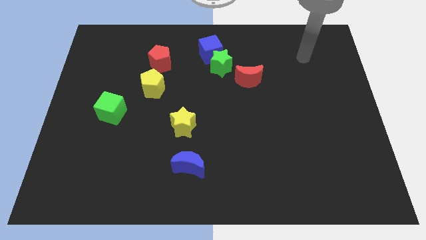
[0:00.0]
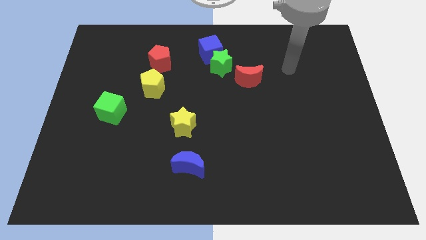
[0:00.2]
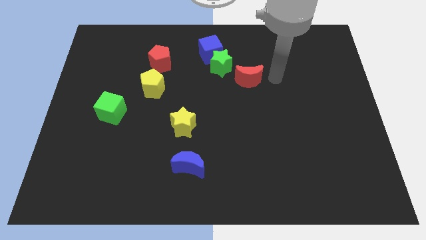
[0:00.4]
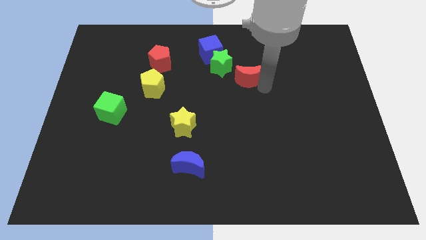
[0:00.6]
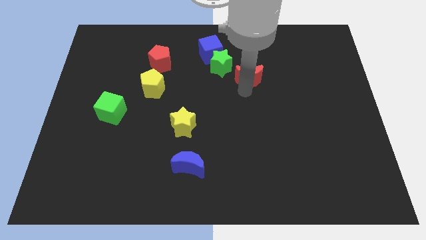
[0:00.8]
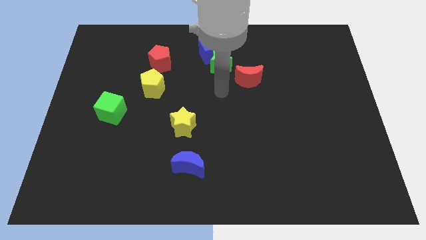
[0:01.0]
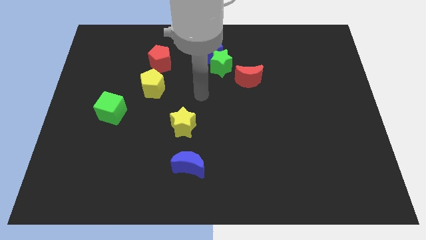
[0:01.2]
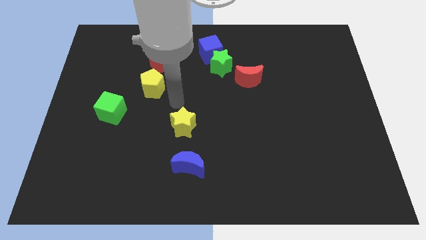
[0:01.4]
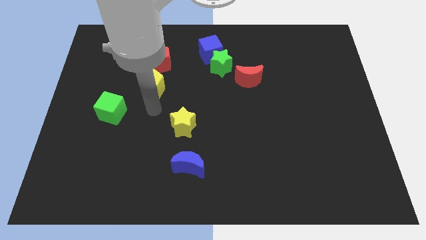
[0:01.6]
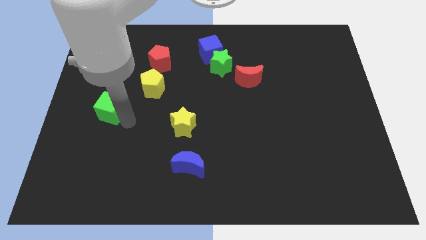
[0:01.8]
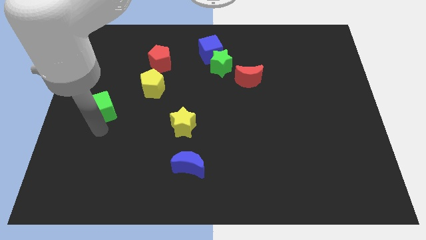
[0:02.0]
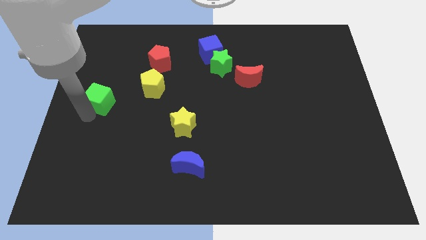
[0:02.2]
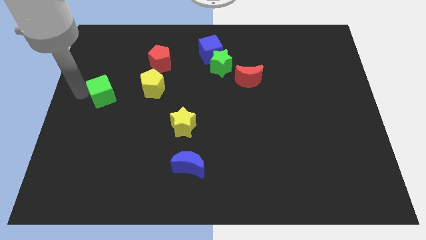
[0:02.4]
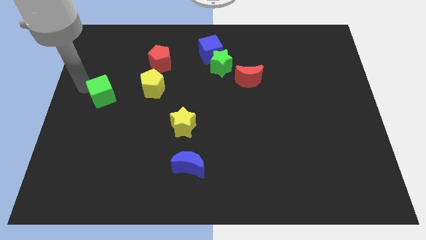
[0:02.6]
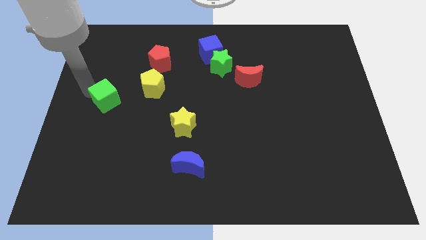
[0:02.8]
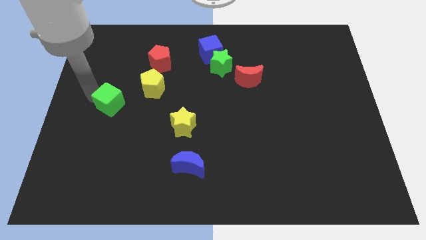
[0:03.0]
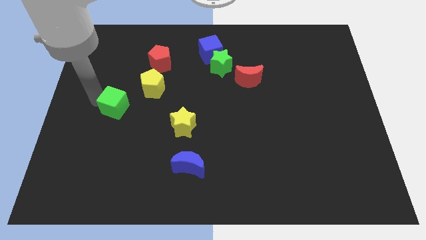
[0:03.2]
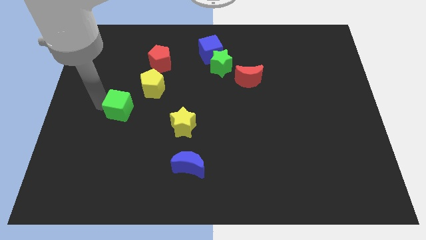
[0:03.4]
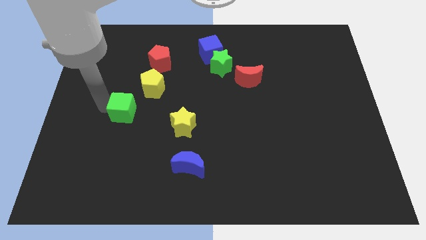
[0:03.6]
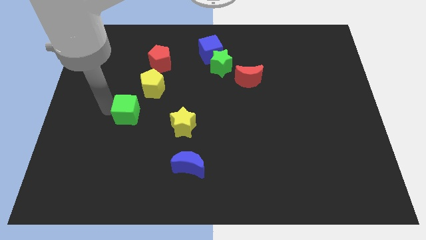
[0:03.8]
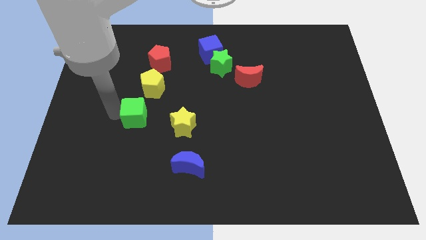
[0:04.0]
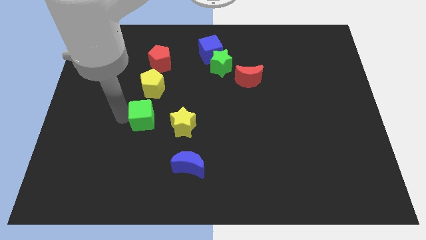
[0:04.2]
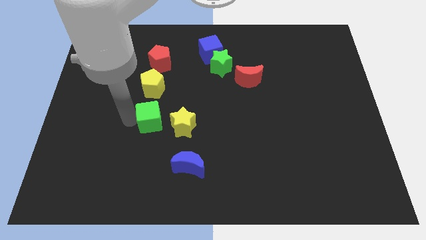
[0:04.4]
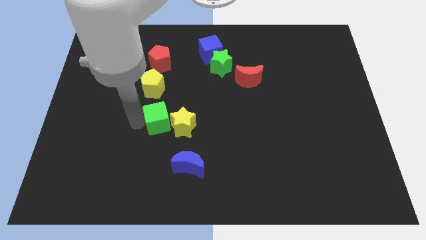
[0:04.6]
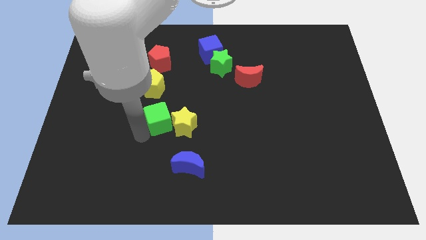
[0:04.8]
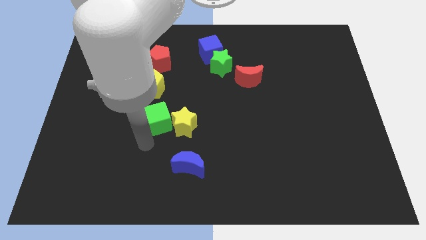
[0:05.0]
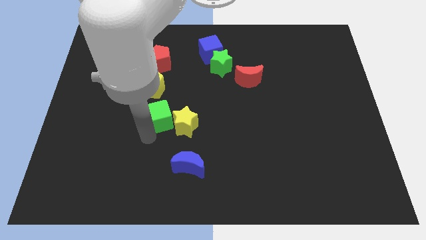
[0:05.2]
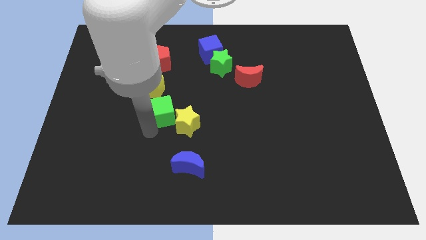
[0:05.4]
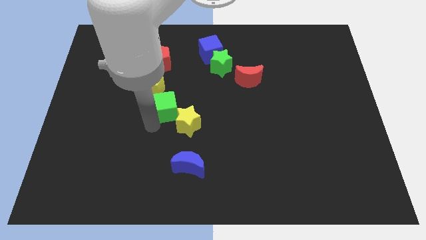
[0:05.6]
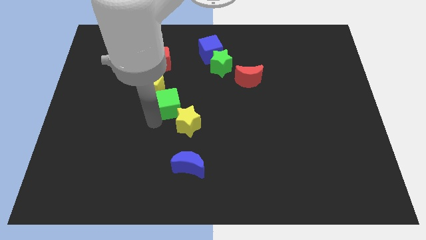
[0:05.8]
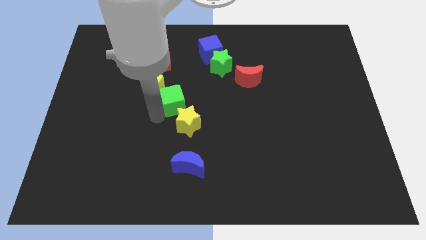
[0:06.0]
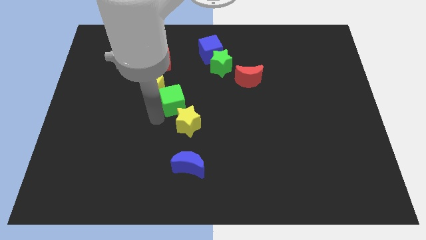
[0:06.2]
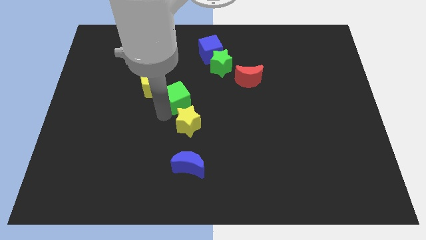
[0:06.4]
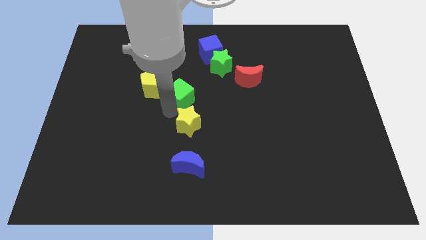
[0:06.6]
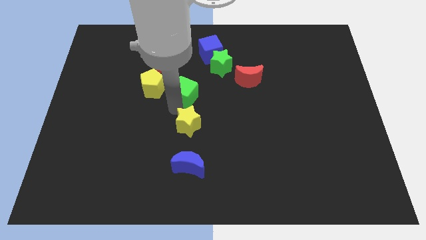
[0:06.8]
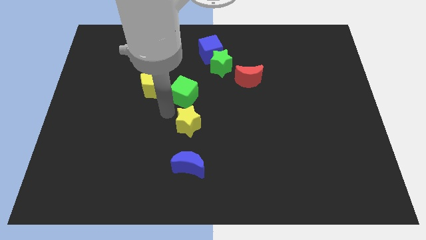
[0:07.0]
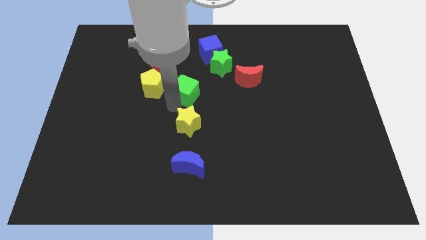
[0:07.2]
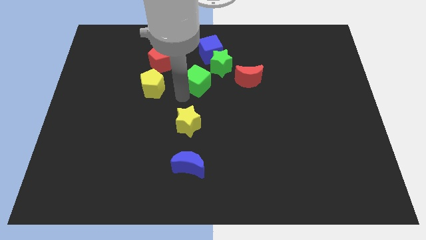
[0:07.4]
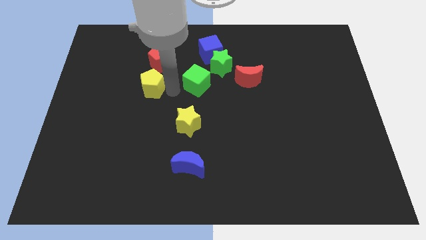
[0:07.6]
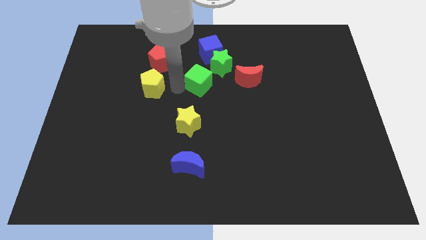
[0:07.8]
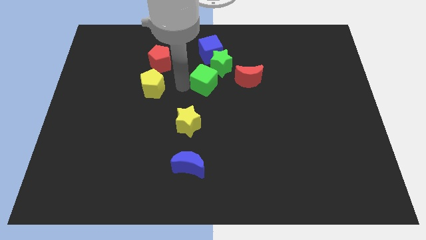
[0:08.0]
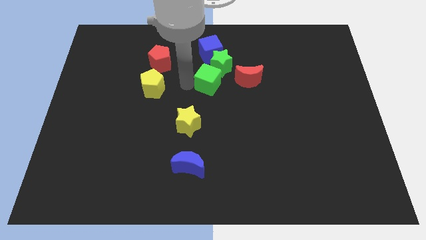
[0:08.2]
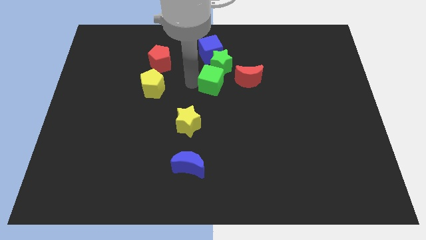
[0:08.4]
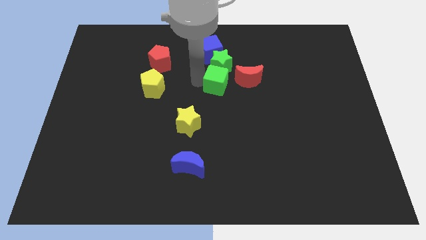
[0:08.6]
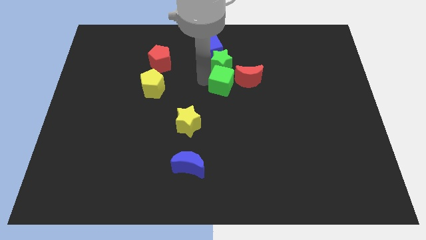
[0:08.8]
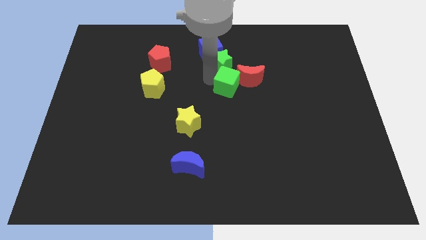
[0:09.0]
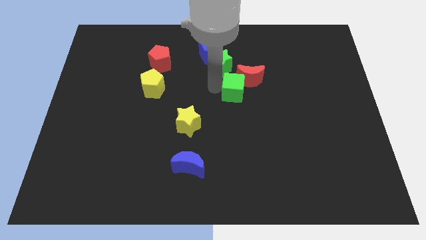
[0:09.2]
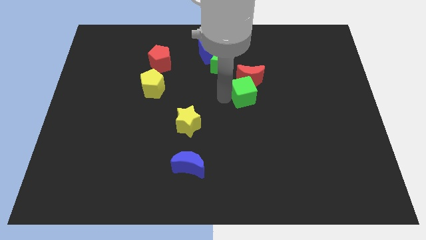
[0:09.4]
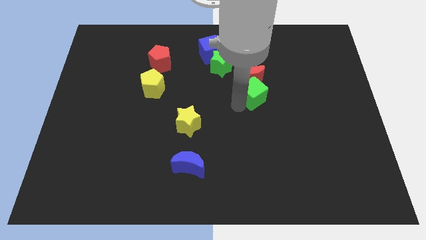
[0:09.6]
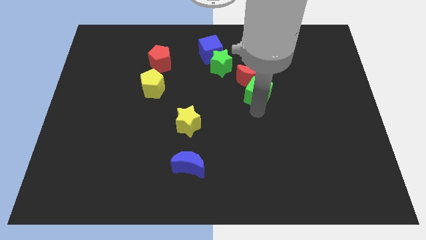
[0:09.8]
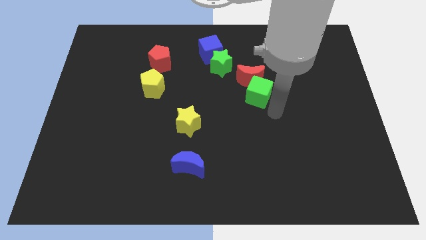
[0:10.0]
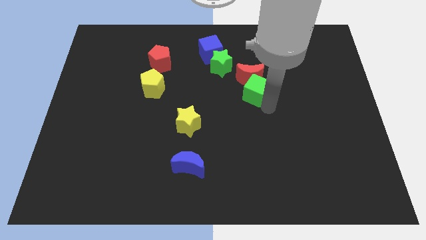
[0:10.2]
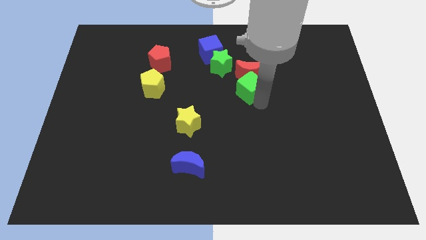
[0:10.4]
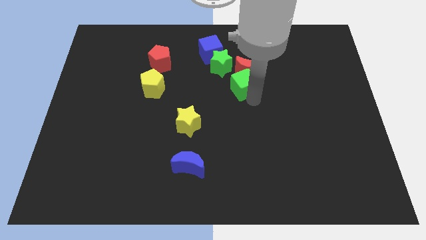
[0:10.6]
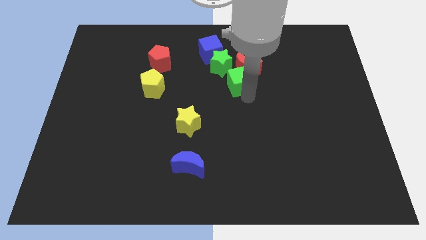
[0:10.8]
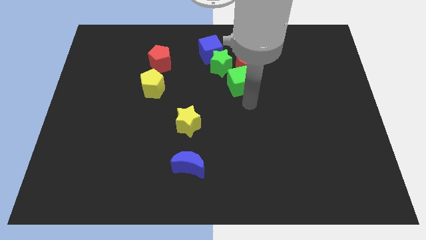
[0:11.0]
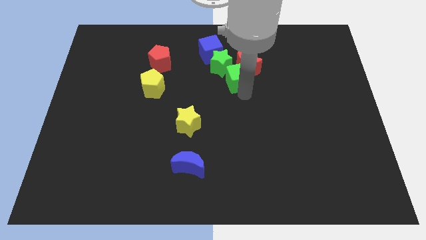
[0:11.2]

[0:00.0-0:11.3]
push the green cube diagonally down and to the right of the blue cube
